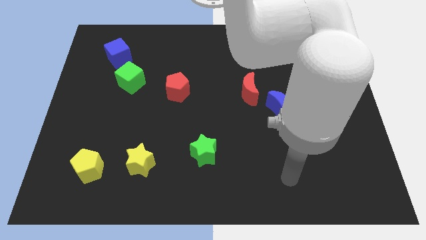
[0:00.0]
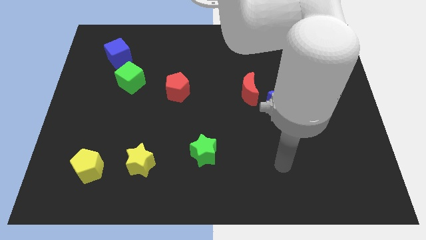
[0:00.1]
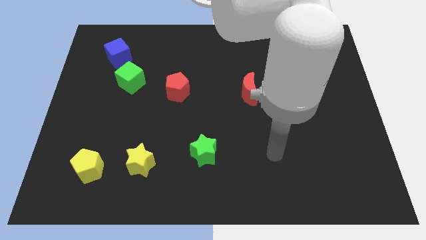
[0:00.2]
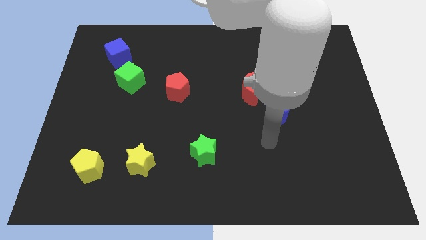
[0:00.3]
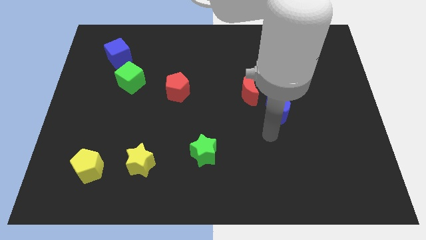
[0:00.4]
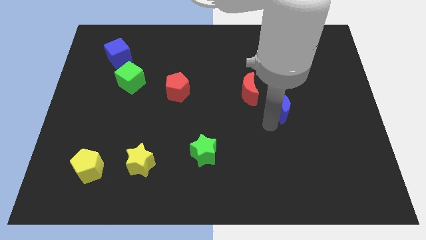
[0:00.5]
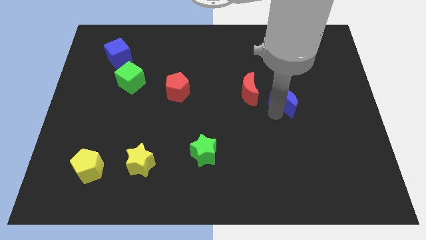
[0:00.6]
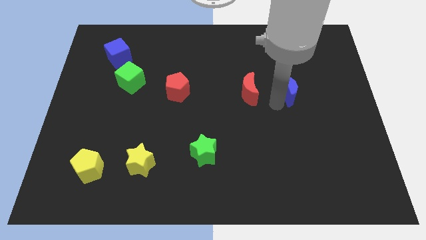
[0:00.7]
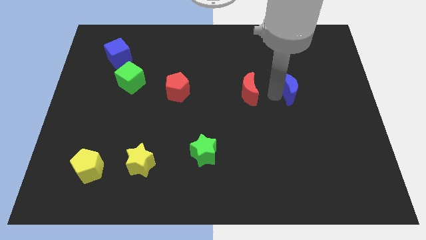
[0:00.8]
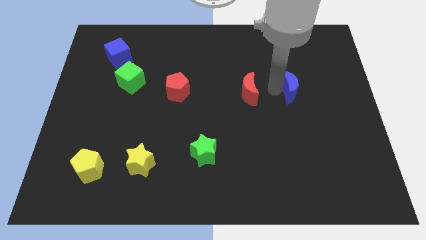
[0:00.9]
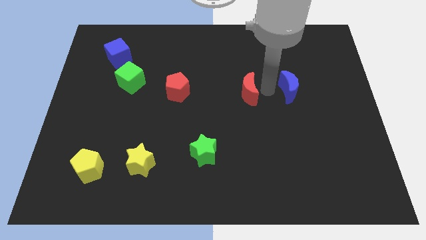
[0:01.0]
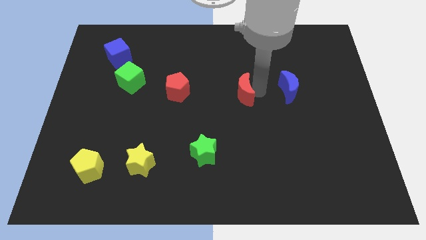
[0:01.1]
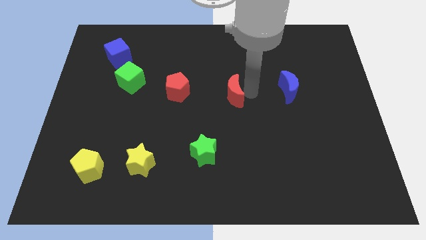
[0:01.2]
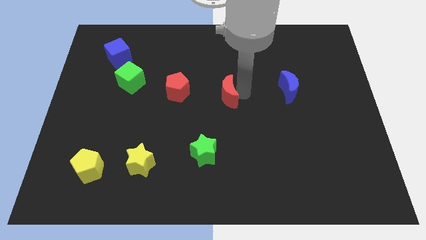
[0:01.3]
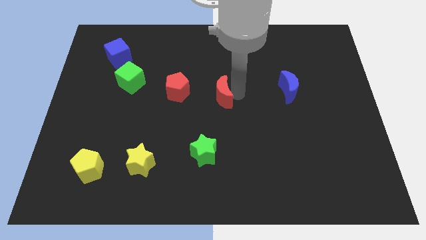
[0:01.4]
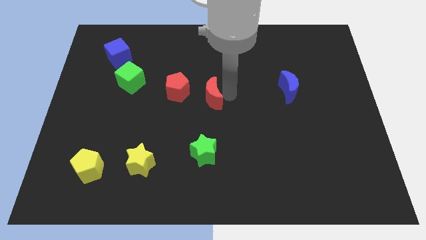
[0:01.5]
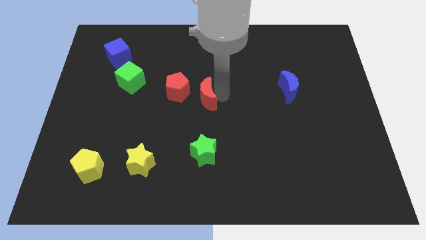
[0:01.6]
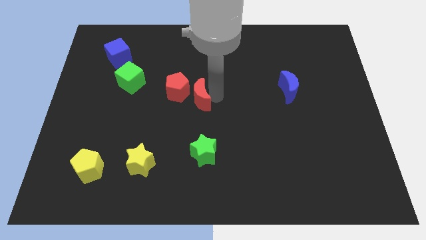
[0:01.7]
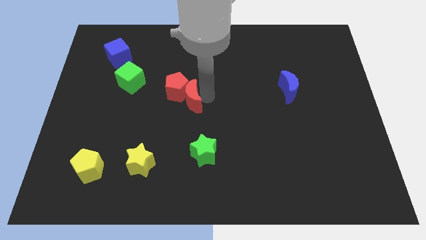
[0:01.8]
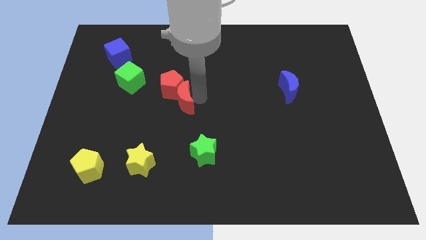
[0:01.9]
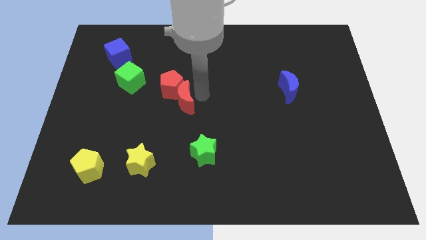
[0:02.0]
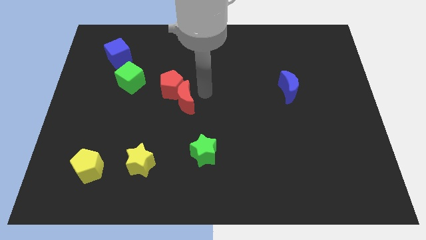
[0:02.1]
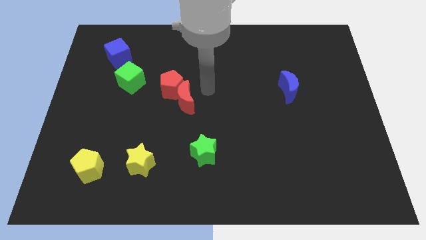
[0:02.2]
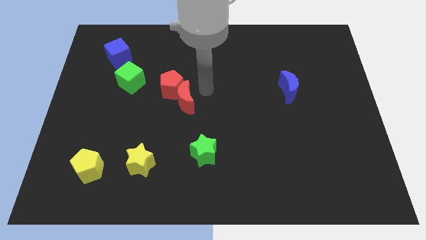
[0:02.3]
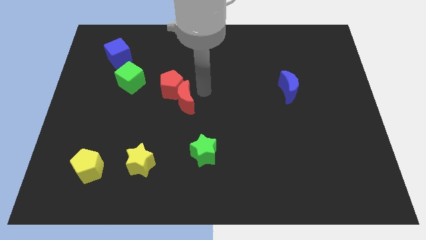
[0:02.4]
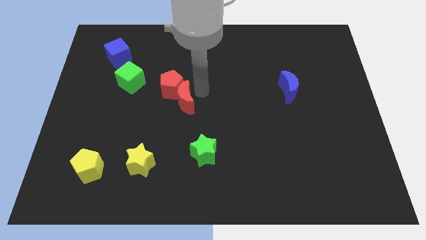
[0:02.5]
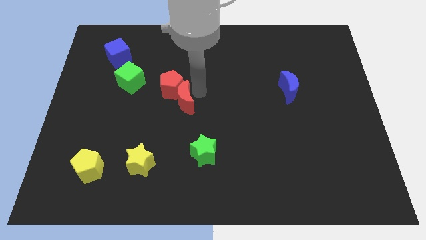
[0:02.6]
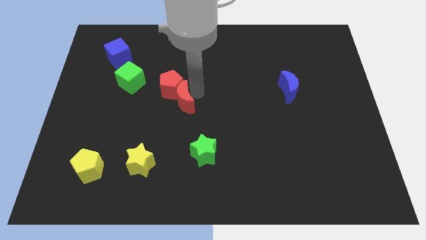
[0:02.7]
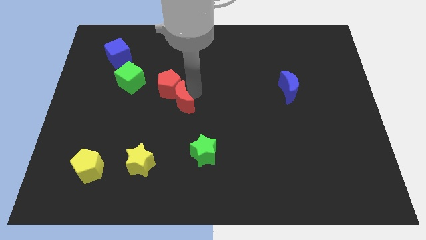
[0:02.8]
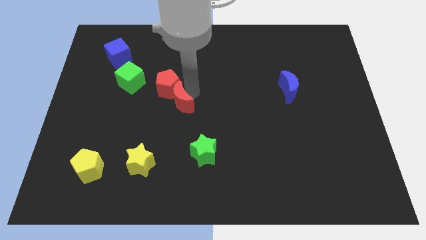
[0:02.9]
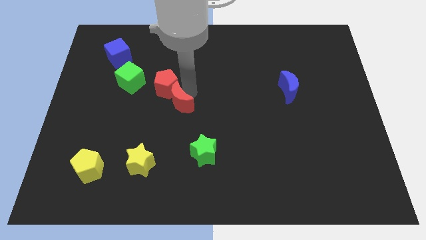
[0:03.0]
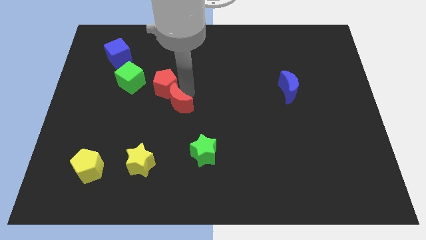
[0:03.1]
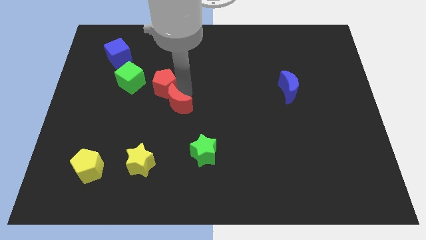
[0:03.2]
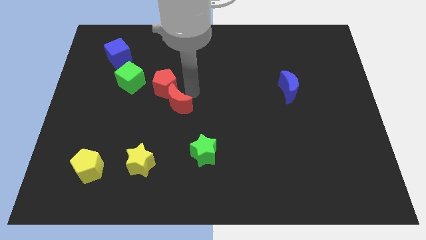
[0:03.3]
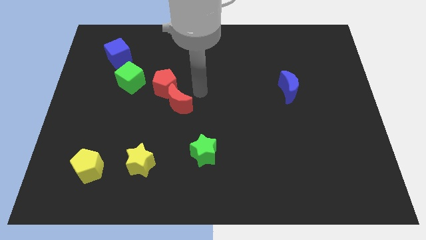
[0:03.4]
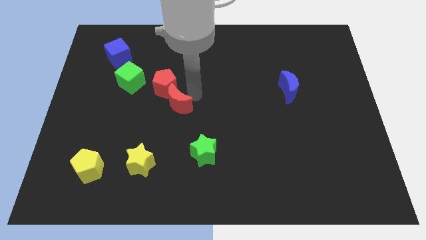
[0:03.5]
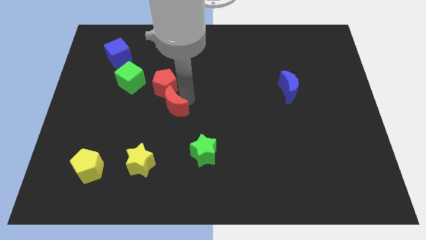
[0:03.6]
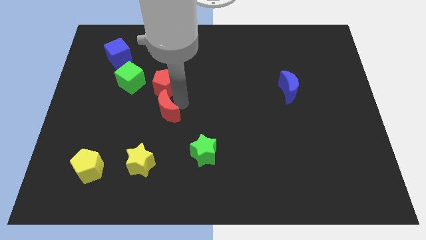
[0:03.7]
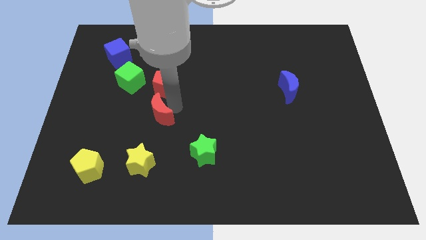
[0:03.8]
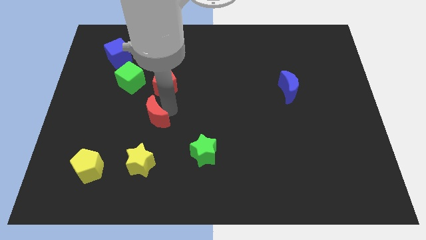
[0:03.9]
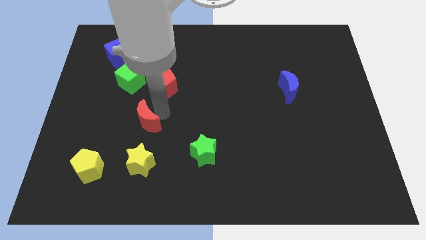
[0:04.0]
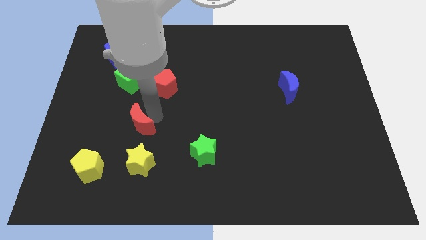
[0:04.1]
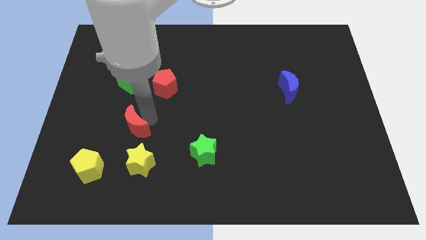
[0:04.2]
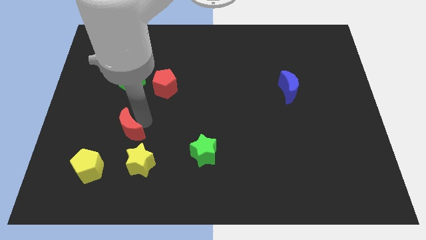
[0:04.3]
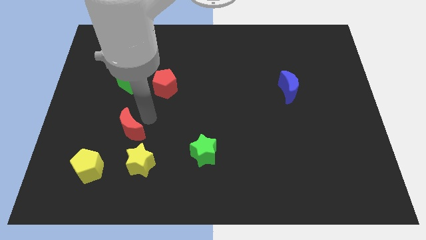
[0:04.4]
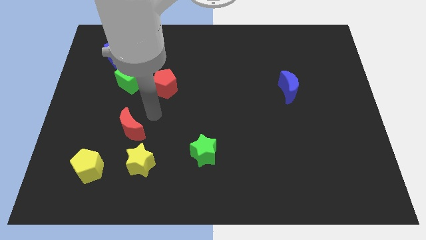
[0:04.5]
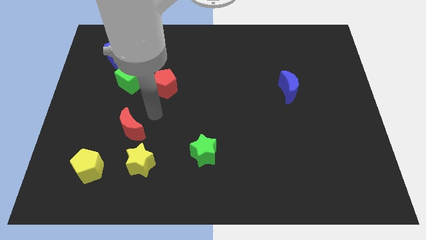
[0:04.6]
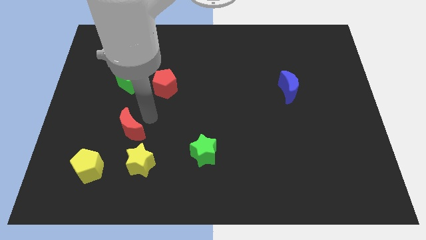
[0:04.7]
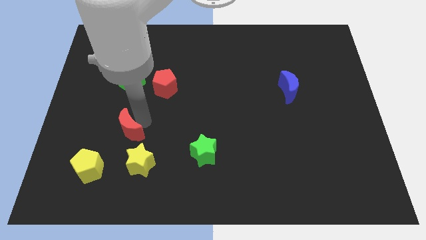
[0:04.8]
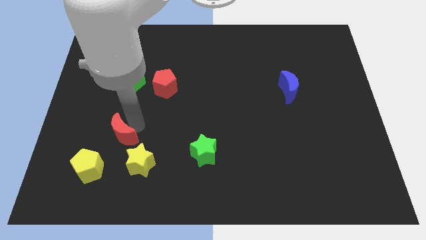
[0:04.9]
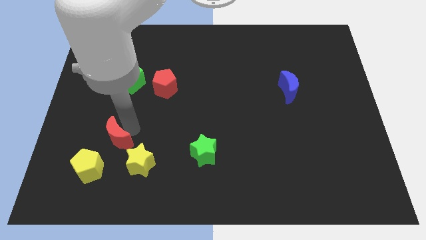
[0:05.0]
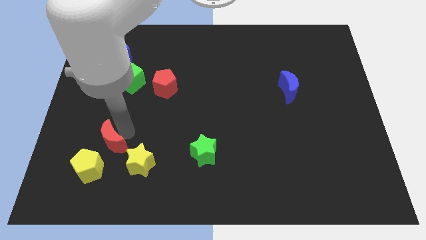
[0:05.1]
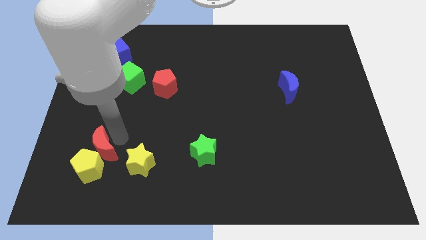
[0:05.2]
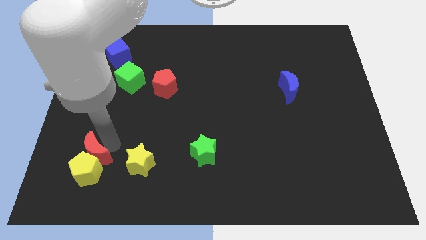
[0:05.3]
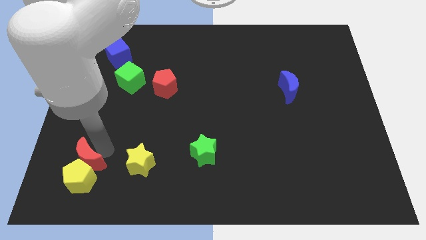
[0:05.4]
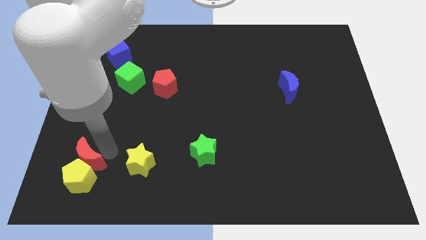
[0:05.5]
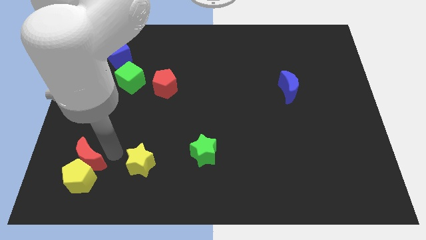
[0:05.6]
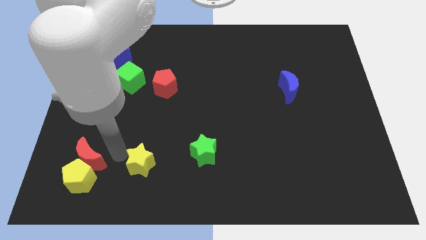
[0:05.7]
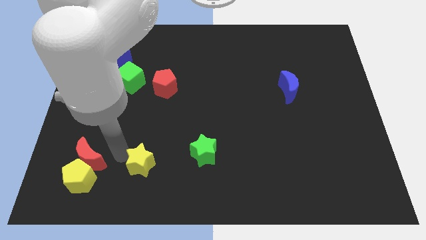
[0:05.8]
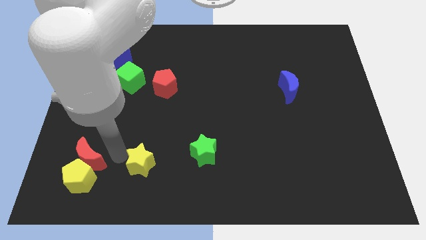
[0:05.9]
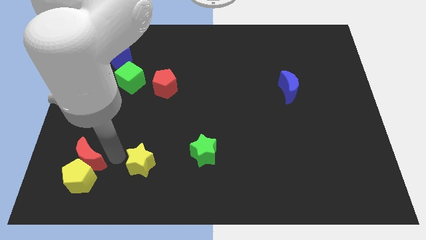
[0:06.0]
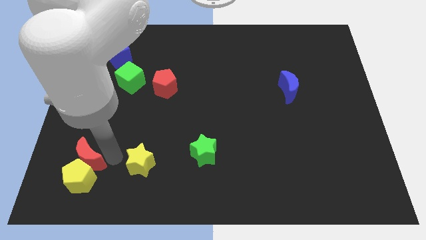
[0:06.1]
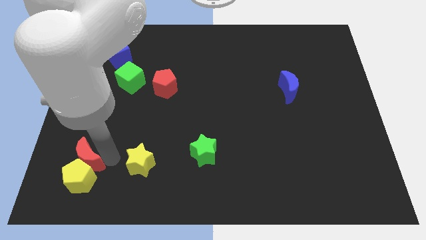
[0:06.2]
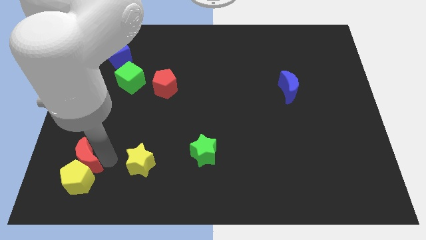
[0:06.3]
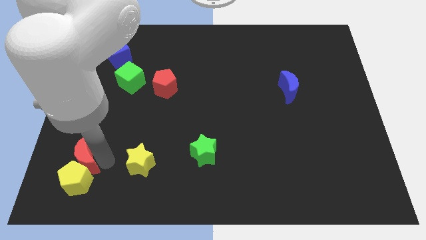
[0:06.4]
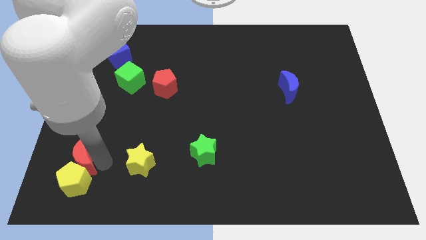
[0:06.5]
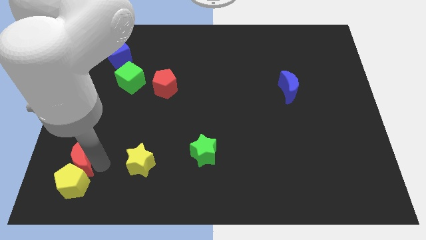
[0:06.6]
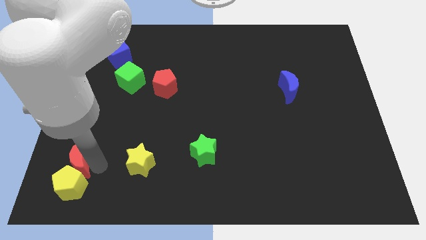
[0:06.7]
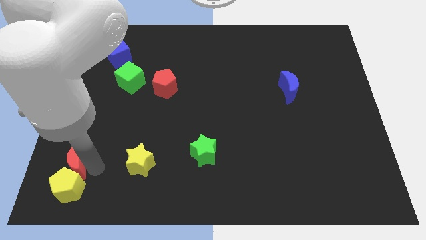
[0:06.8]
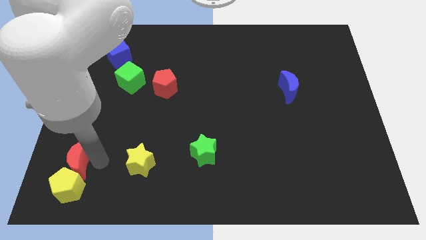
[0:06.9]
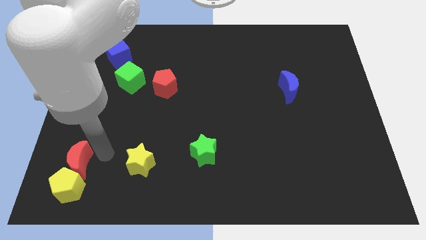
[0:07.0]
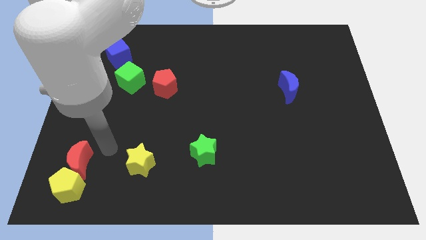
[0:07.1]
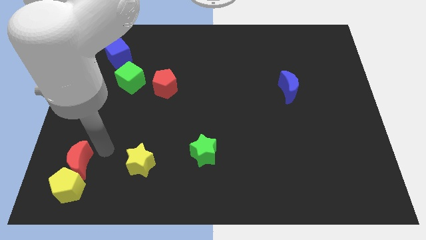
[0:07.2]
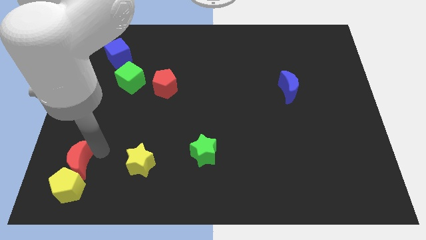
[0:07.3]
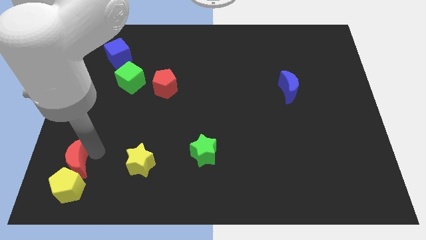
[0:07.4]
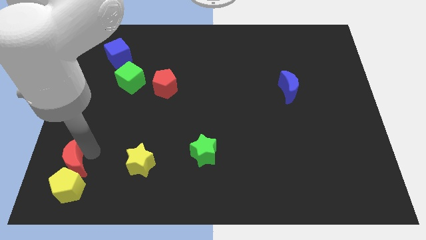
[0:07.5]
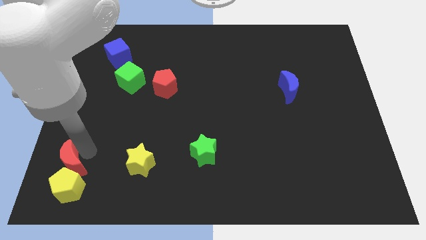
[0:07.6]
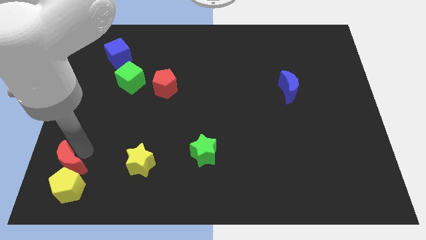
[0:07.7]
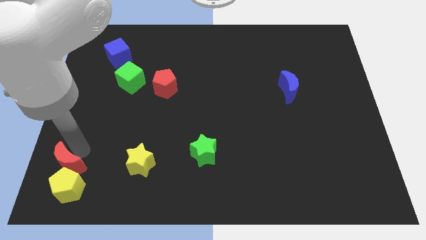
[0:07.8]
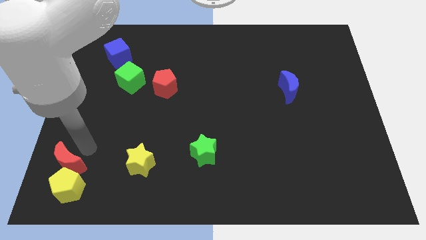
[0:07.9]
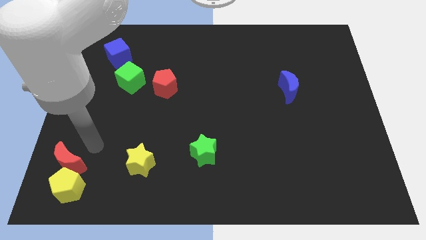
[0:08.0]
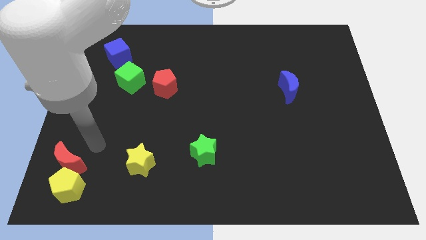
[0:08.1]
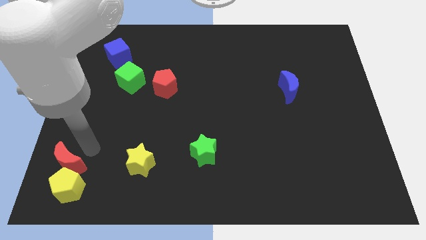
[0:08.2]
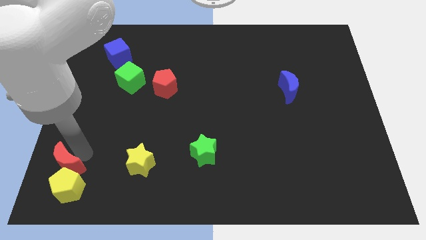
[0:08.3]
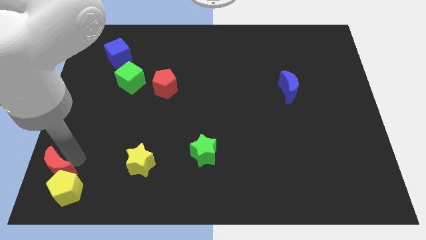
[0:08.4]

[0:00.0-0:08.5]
put the red moon to the bottom left
